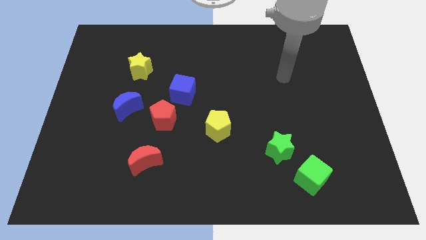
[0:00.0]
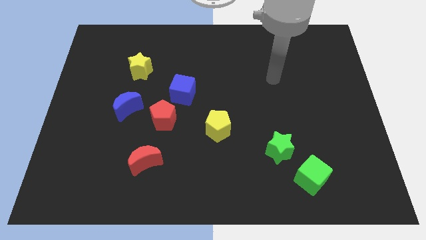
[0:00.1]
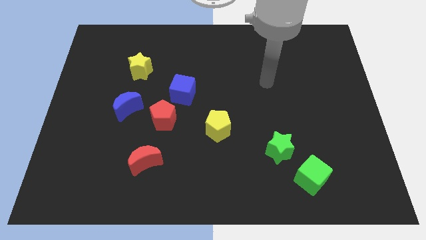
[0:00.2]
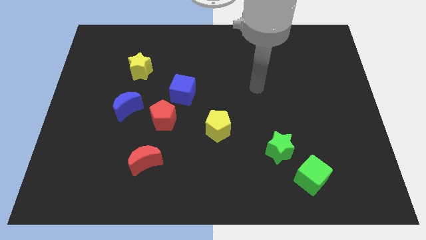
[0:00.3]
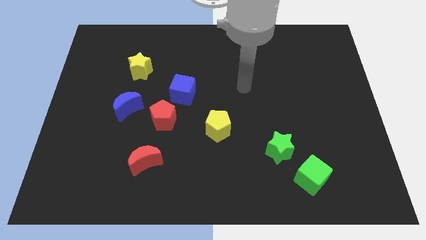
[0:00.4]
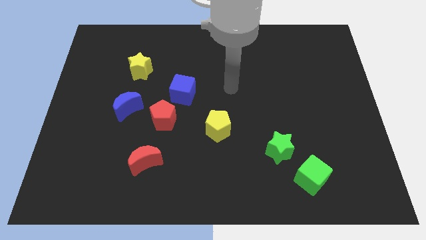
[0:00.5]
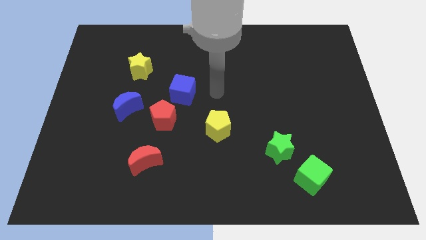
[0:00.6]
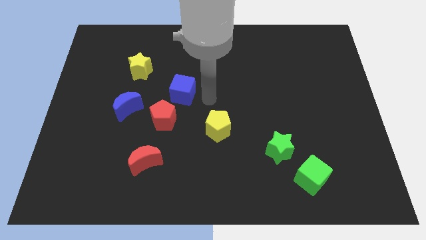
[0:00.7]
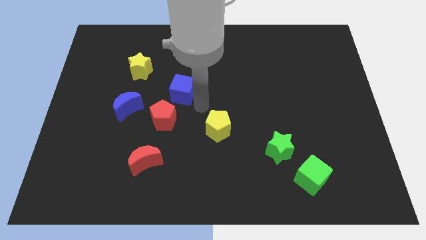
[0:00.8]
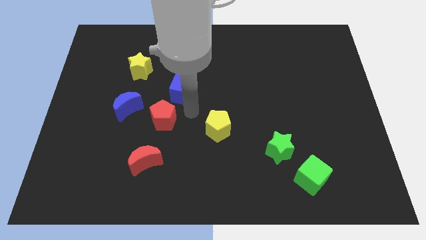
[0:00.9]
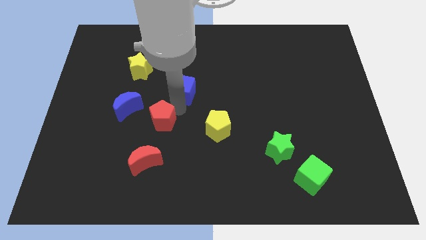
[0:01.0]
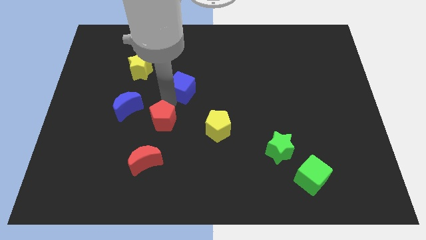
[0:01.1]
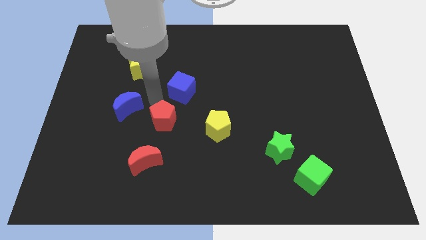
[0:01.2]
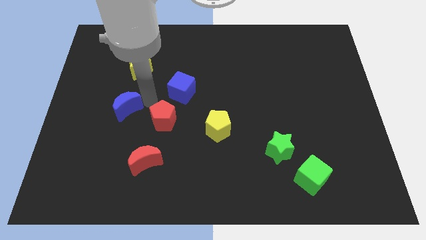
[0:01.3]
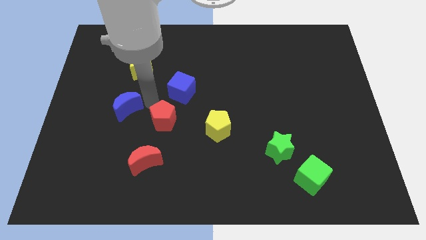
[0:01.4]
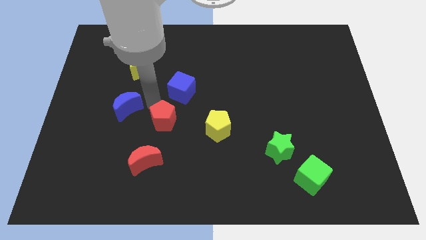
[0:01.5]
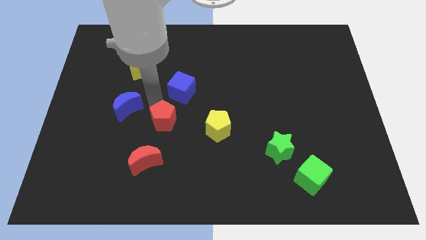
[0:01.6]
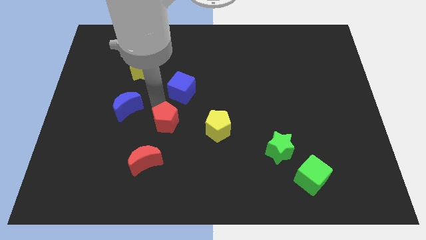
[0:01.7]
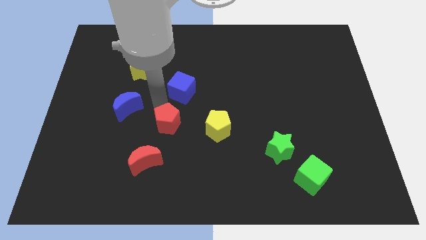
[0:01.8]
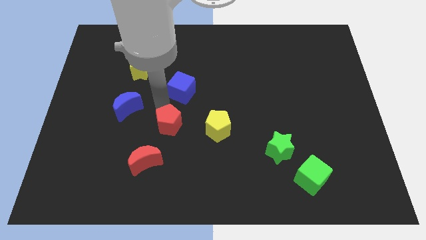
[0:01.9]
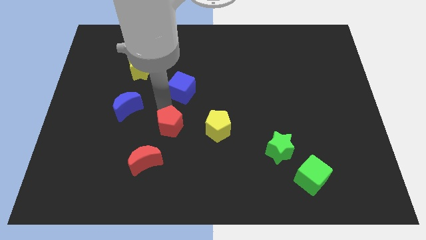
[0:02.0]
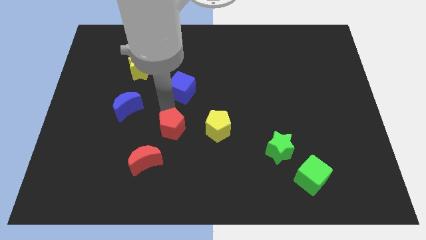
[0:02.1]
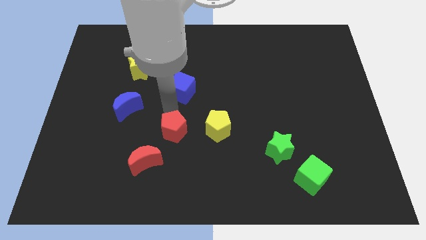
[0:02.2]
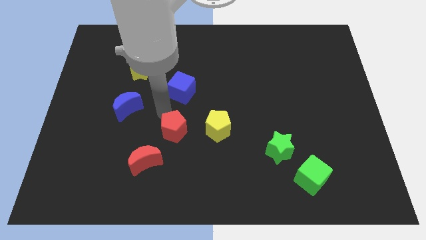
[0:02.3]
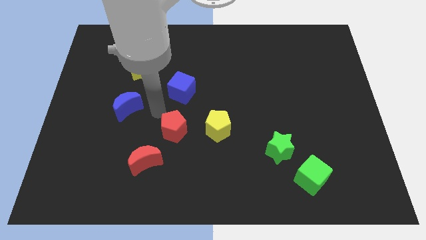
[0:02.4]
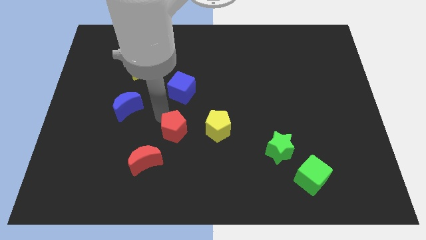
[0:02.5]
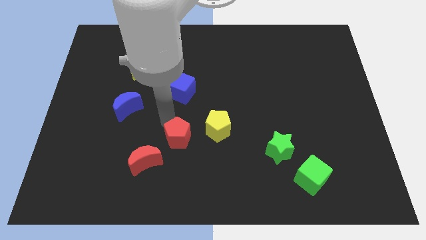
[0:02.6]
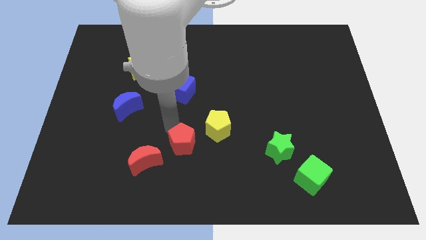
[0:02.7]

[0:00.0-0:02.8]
slide the red pentagon a bit diagonally down and right

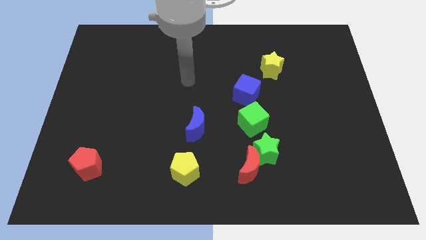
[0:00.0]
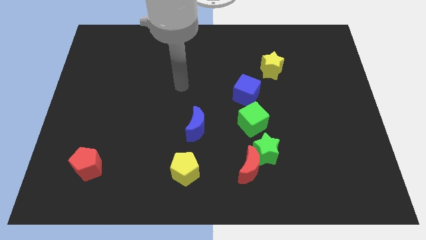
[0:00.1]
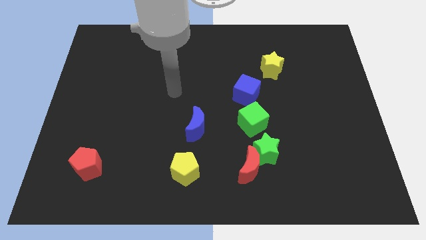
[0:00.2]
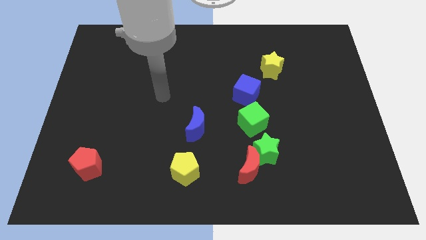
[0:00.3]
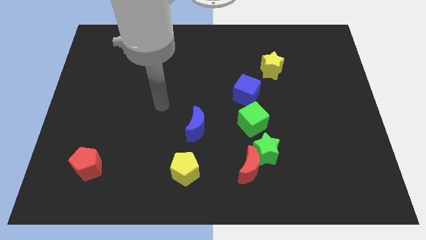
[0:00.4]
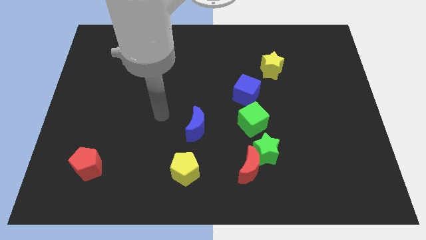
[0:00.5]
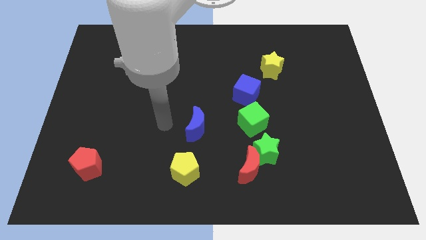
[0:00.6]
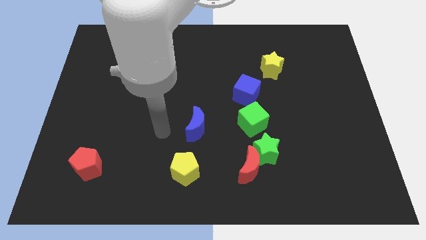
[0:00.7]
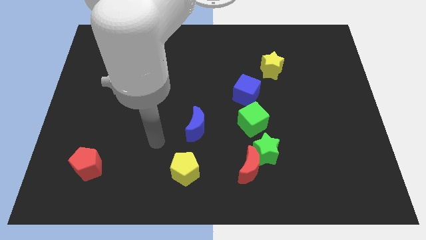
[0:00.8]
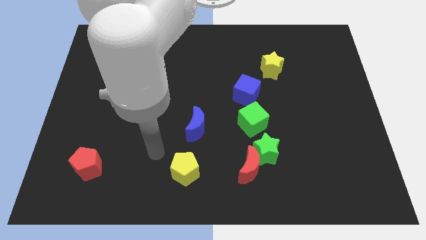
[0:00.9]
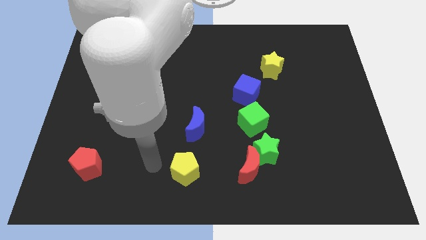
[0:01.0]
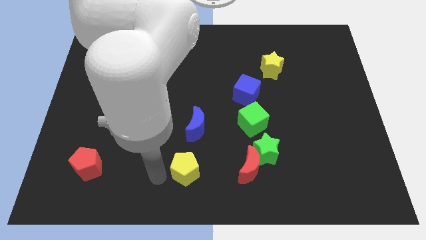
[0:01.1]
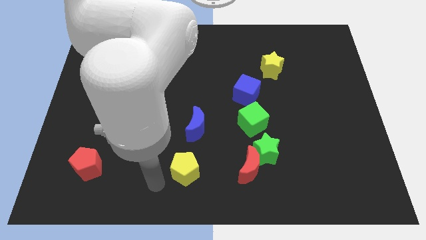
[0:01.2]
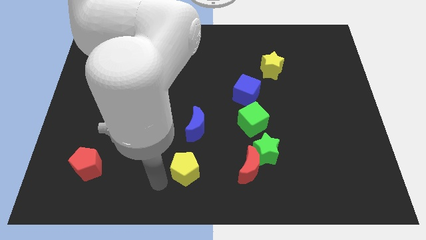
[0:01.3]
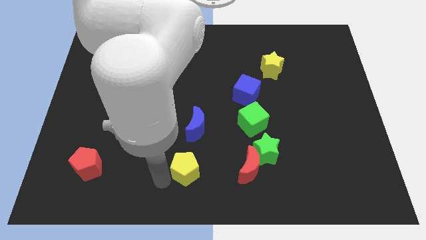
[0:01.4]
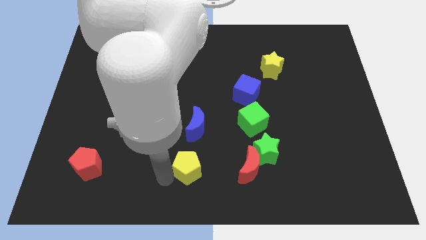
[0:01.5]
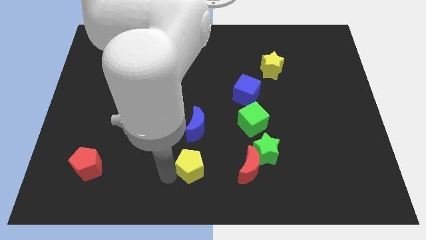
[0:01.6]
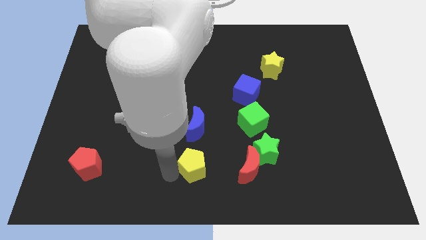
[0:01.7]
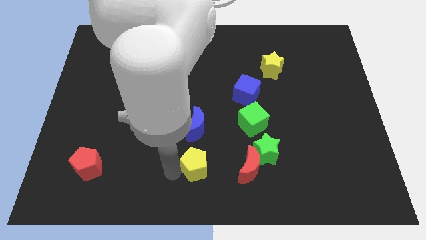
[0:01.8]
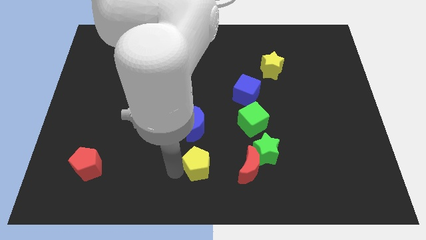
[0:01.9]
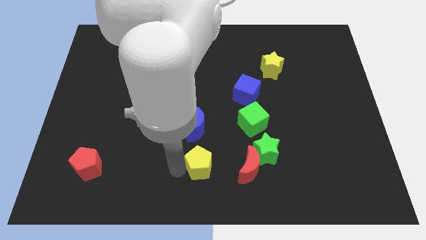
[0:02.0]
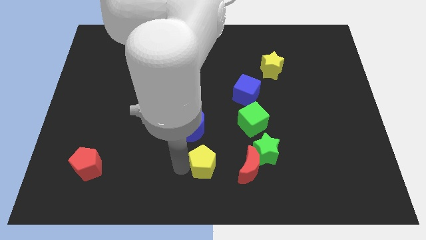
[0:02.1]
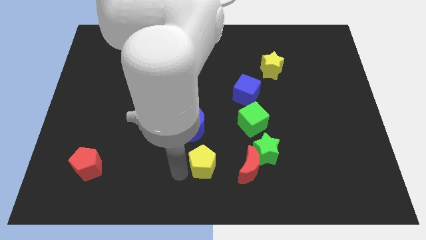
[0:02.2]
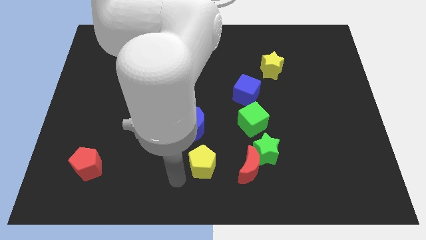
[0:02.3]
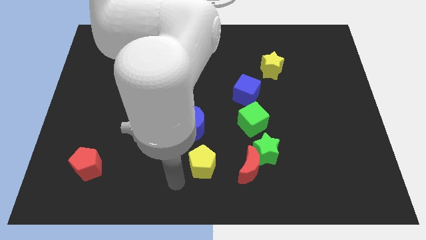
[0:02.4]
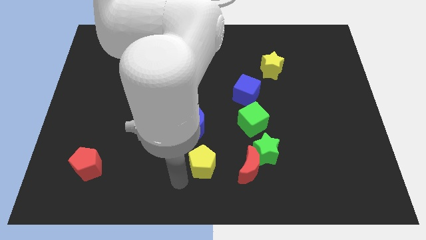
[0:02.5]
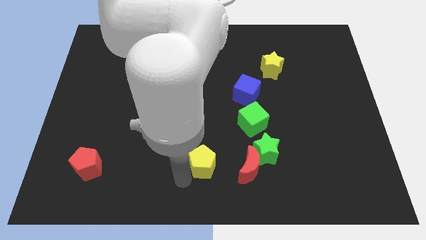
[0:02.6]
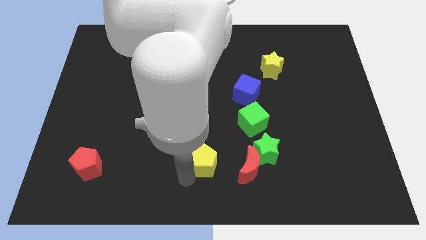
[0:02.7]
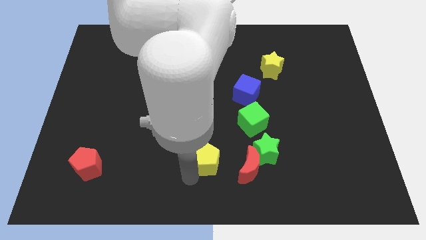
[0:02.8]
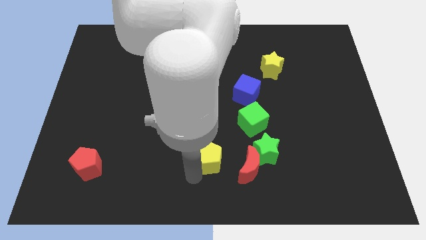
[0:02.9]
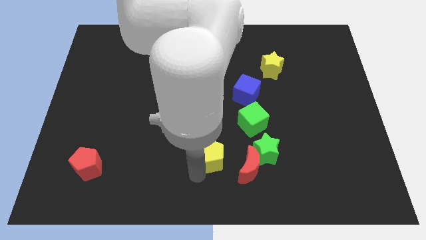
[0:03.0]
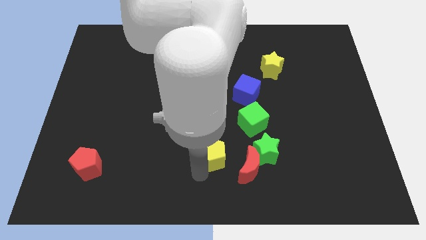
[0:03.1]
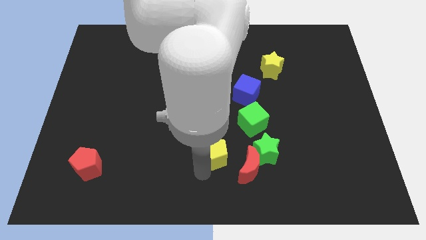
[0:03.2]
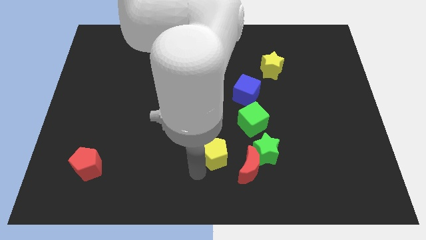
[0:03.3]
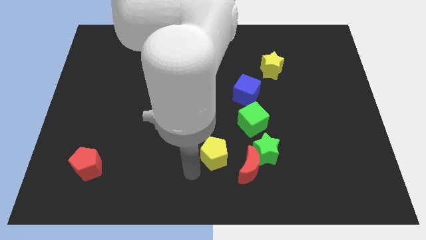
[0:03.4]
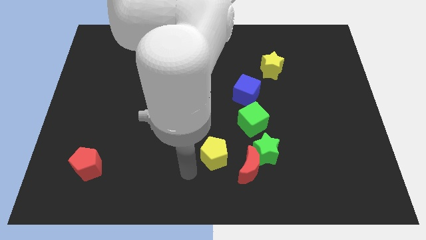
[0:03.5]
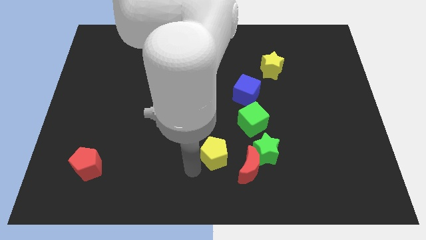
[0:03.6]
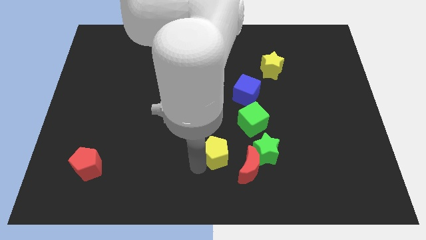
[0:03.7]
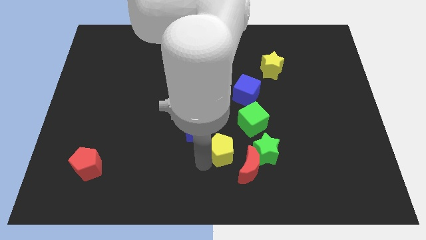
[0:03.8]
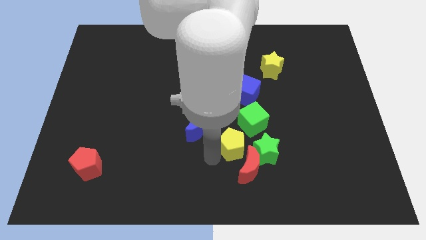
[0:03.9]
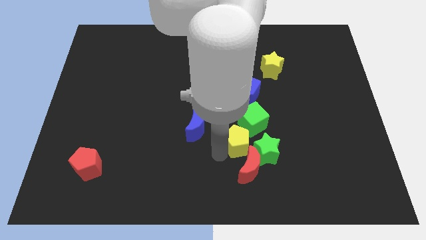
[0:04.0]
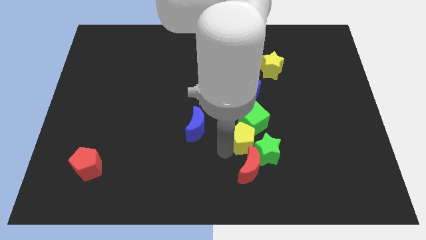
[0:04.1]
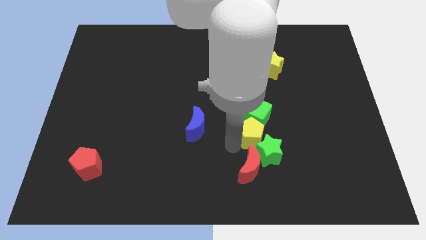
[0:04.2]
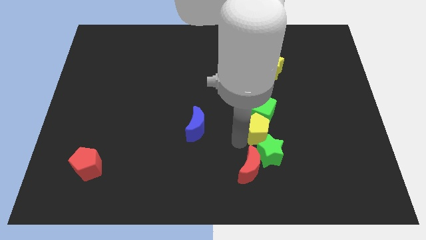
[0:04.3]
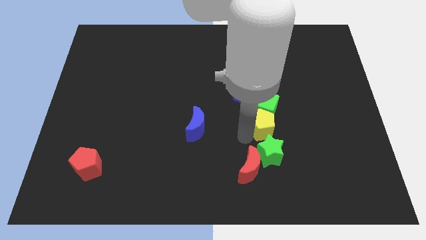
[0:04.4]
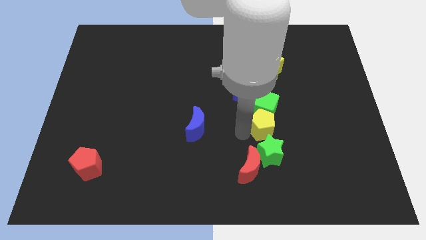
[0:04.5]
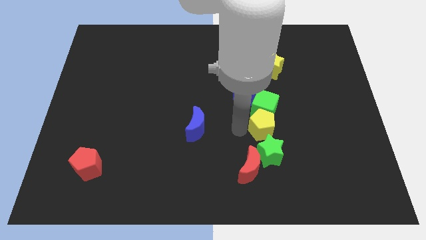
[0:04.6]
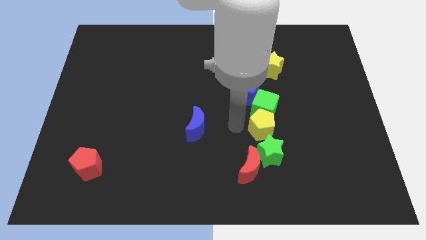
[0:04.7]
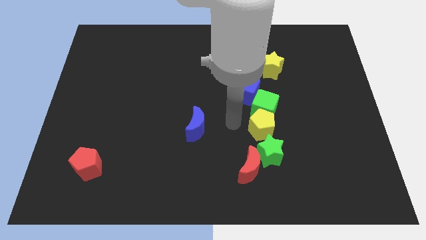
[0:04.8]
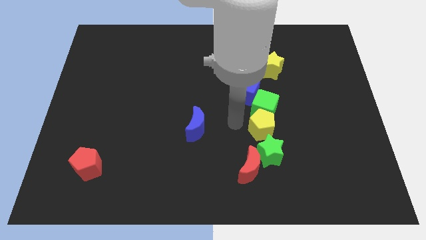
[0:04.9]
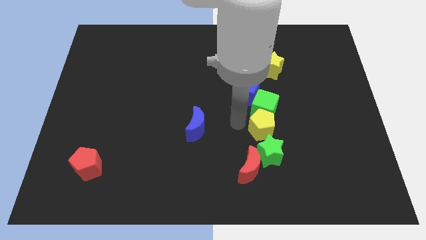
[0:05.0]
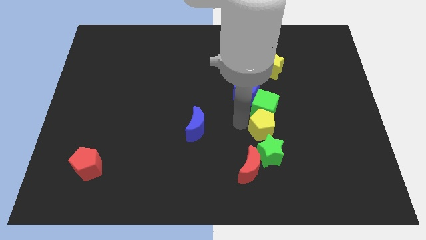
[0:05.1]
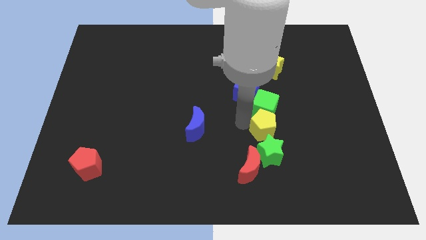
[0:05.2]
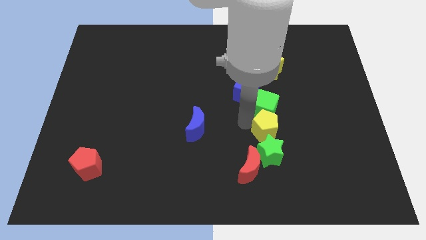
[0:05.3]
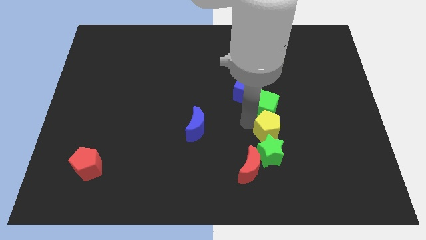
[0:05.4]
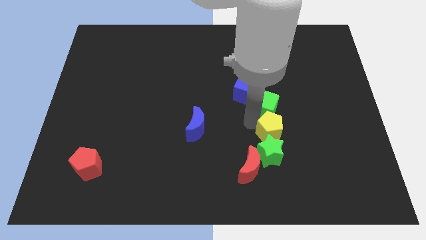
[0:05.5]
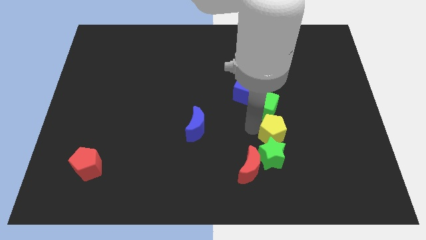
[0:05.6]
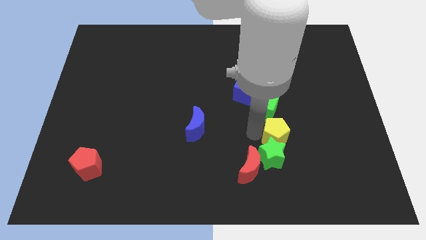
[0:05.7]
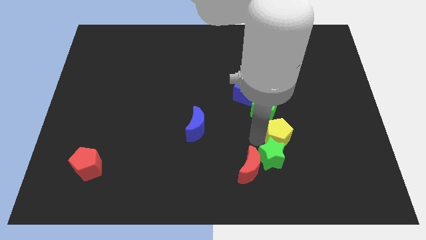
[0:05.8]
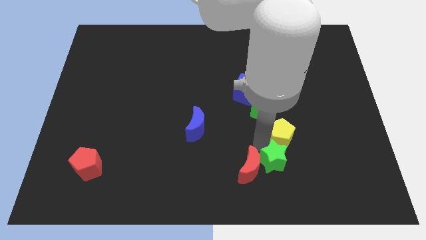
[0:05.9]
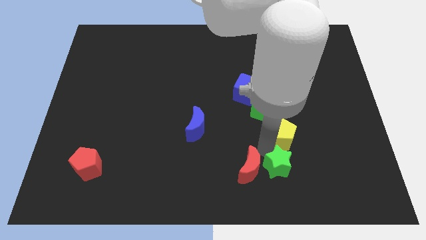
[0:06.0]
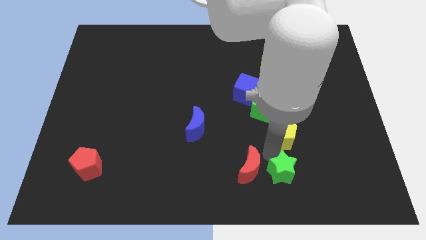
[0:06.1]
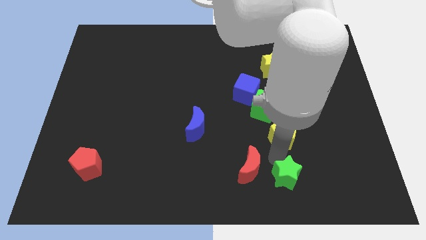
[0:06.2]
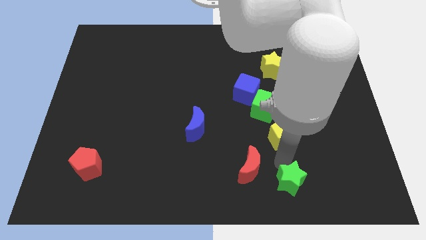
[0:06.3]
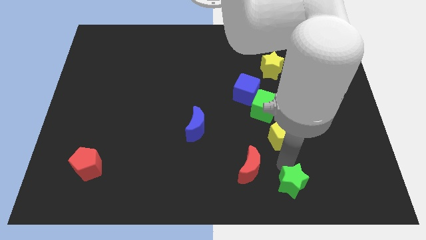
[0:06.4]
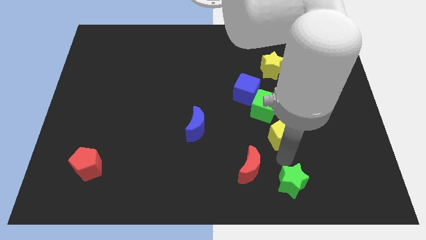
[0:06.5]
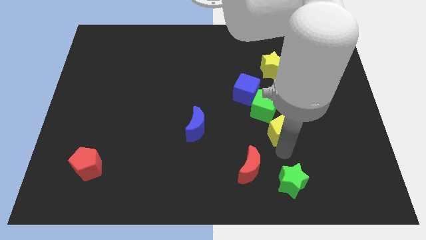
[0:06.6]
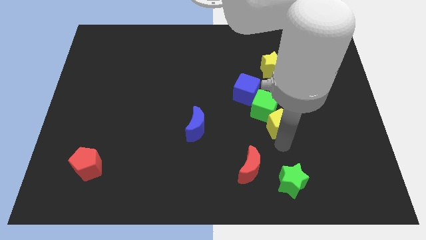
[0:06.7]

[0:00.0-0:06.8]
move the yellow pentagon upwards and to the right
